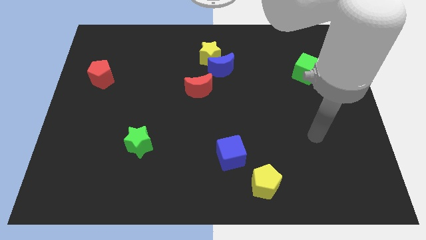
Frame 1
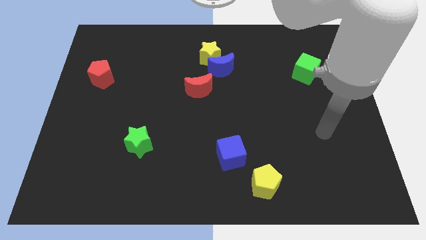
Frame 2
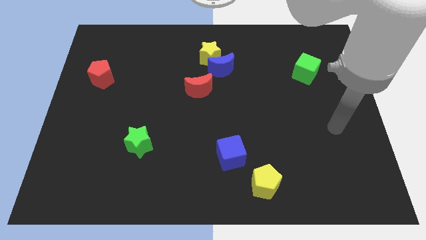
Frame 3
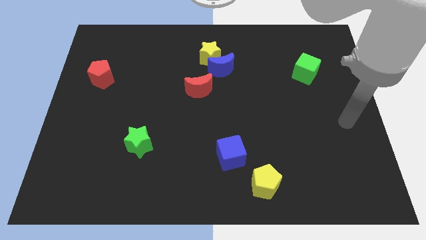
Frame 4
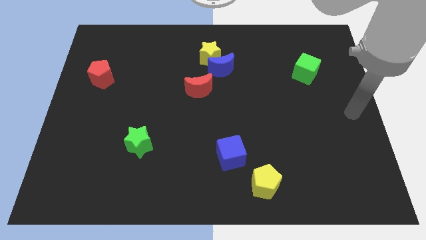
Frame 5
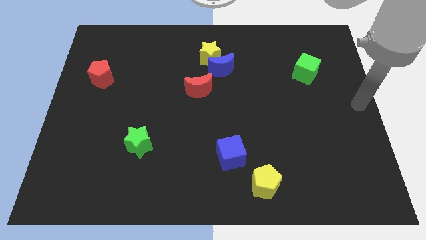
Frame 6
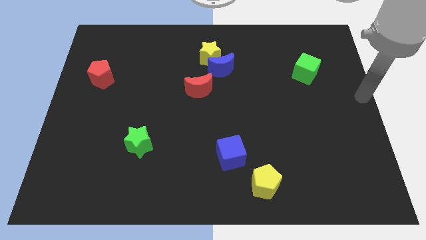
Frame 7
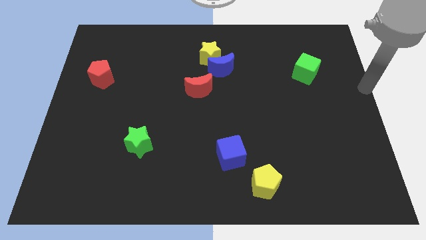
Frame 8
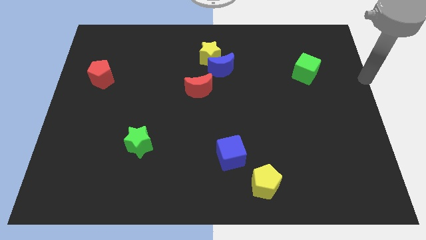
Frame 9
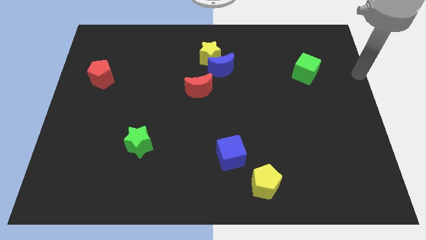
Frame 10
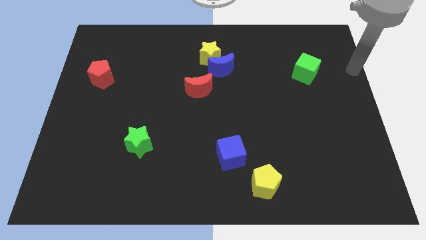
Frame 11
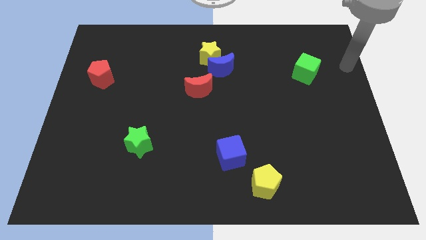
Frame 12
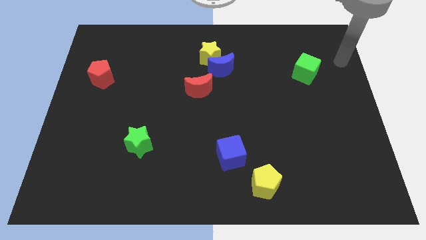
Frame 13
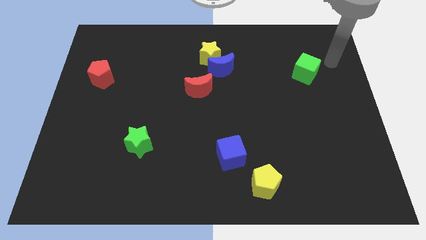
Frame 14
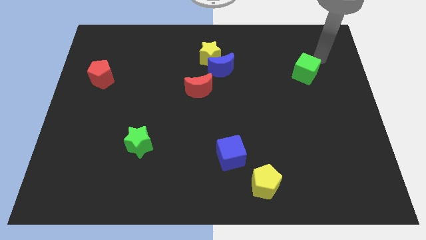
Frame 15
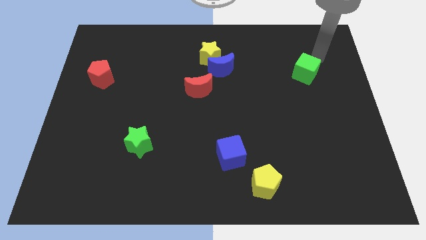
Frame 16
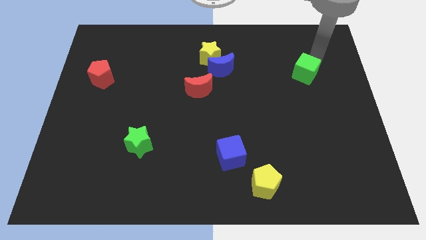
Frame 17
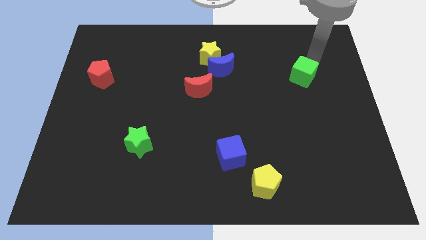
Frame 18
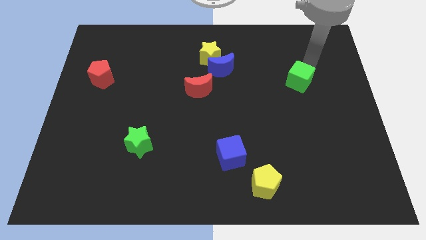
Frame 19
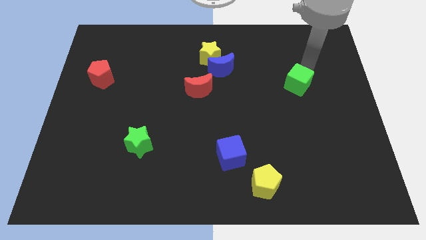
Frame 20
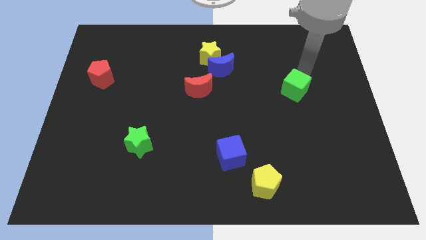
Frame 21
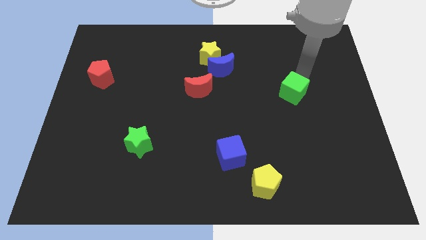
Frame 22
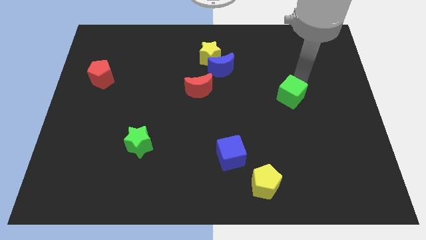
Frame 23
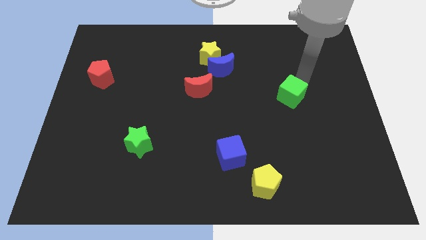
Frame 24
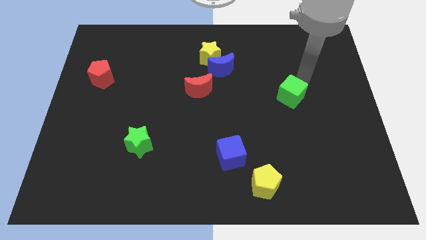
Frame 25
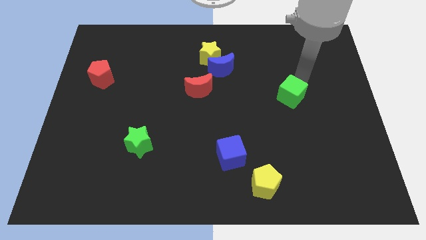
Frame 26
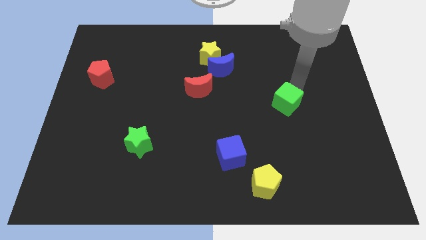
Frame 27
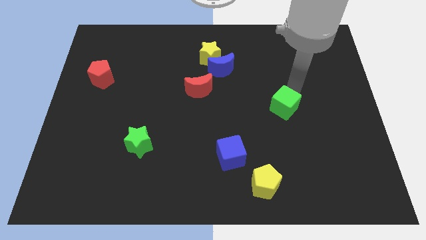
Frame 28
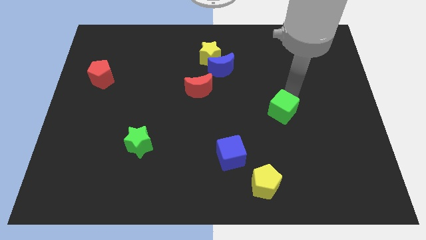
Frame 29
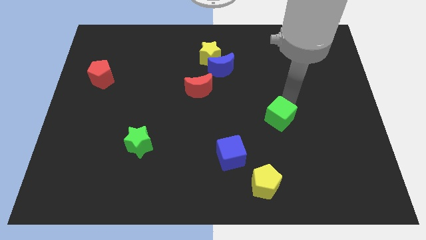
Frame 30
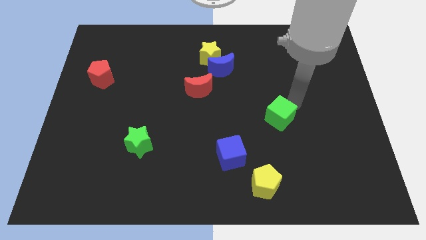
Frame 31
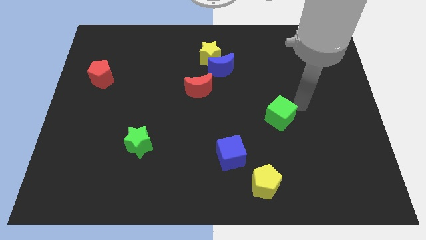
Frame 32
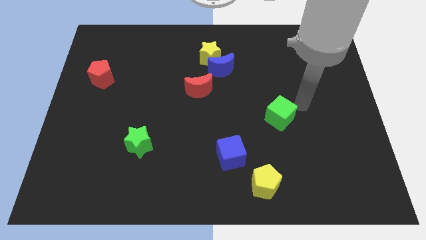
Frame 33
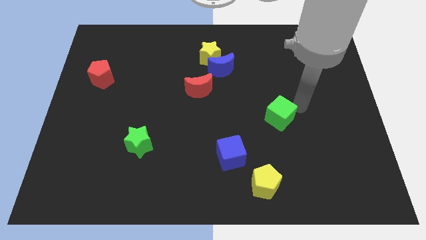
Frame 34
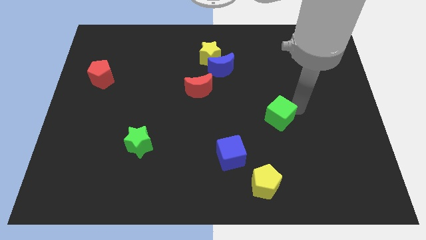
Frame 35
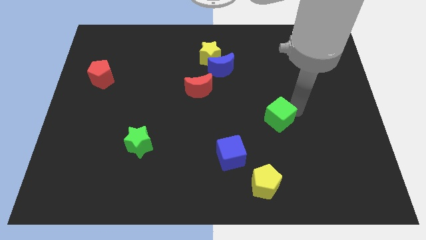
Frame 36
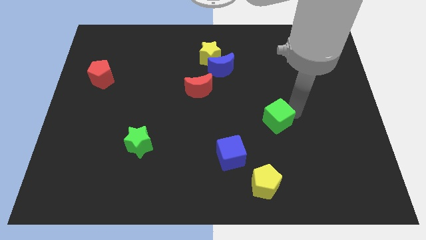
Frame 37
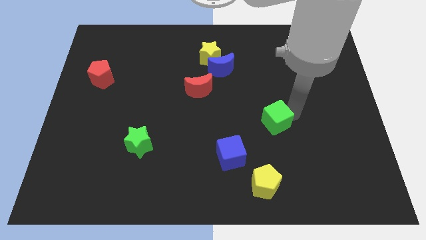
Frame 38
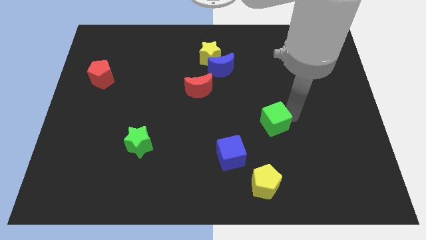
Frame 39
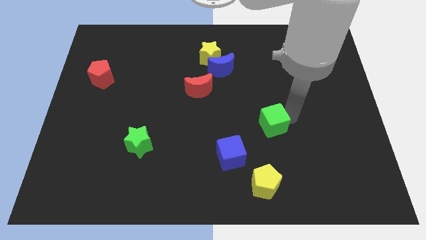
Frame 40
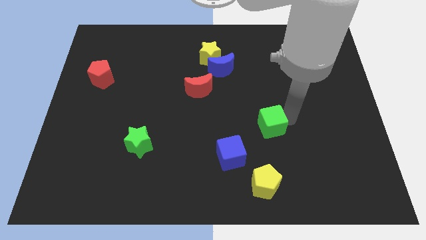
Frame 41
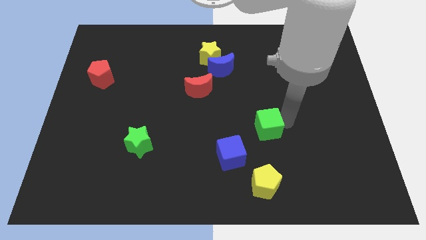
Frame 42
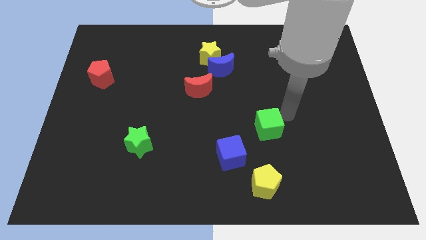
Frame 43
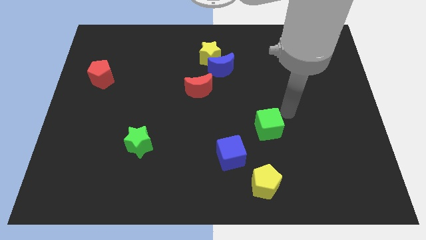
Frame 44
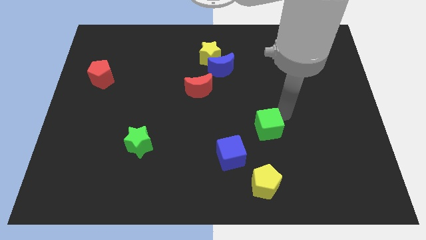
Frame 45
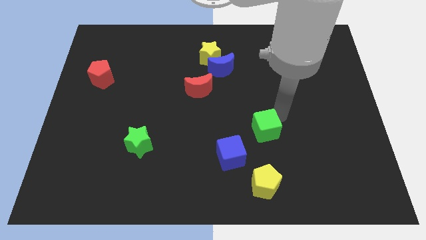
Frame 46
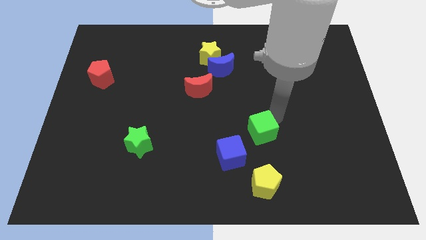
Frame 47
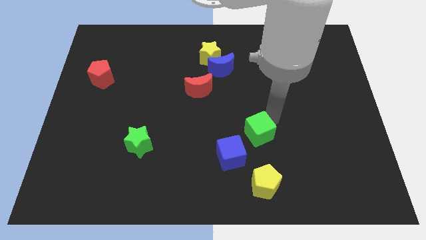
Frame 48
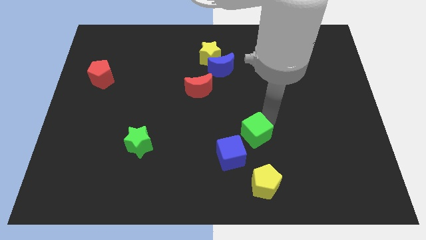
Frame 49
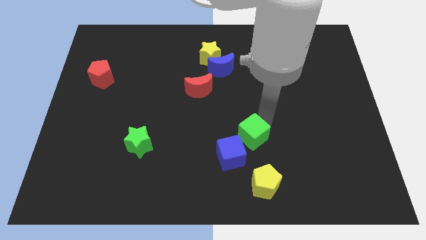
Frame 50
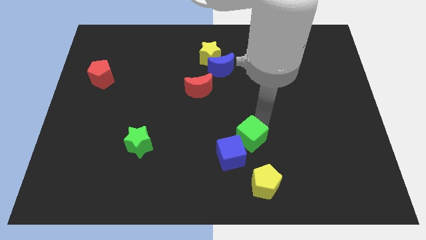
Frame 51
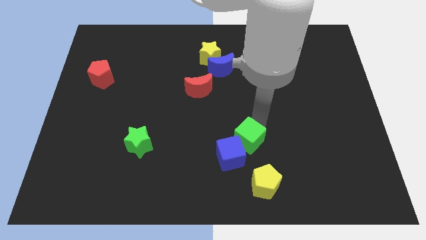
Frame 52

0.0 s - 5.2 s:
slide the green cube towards the blue cube

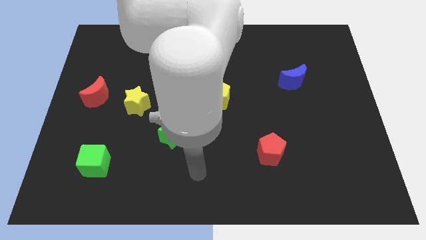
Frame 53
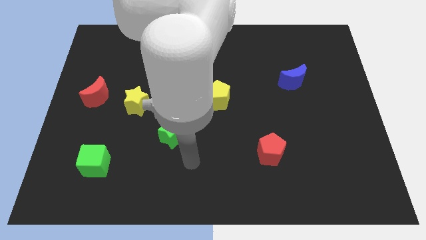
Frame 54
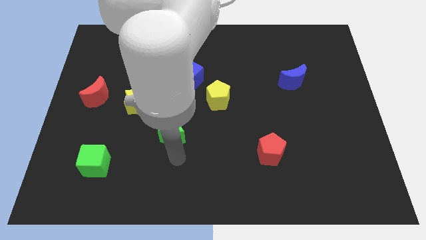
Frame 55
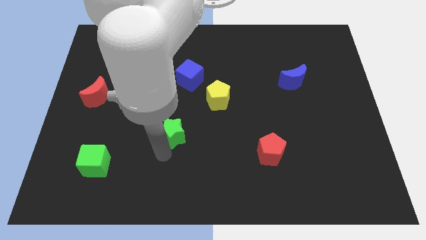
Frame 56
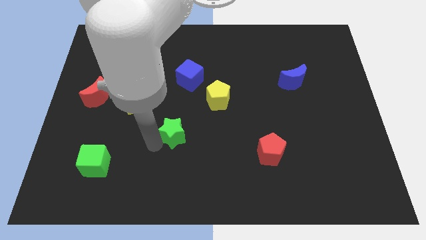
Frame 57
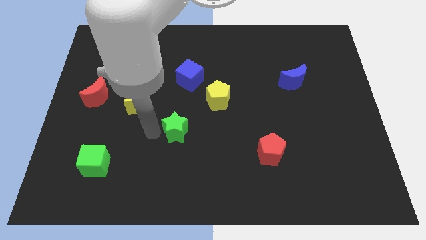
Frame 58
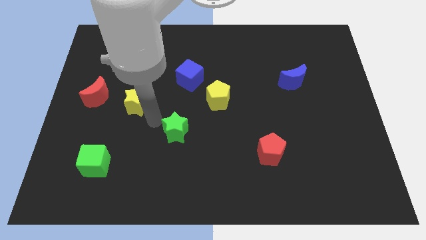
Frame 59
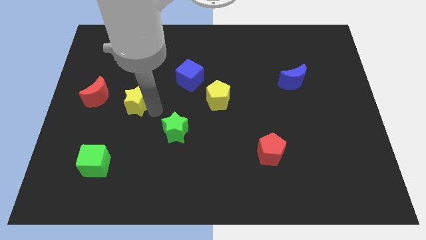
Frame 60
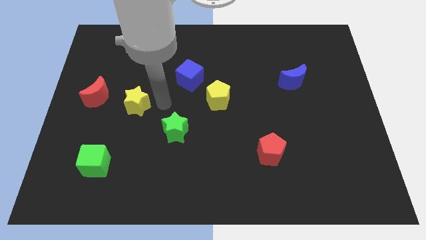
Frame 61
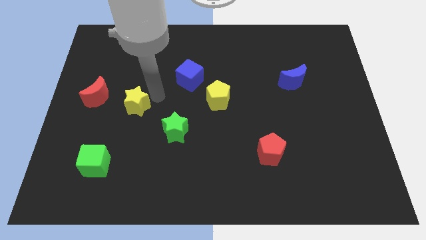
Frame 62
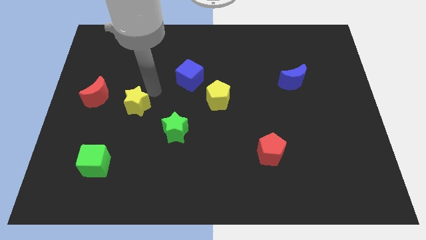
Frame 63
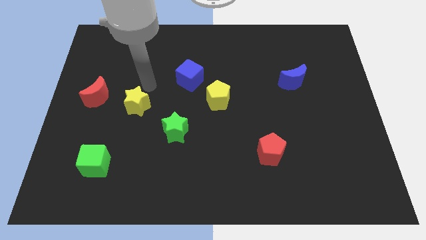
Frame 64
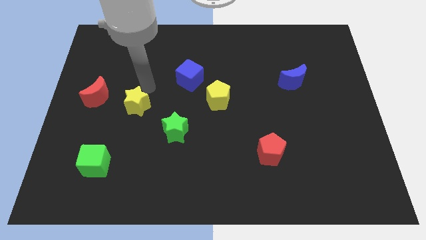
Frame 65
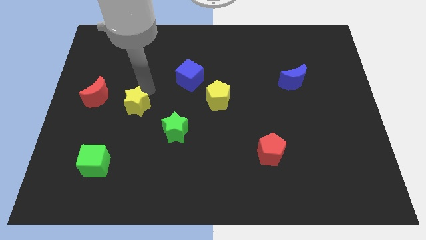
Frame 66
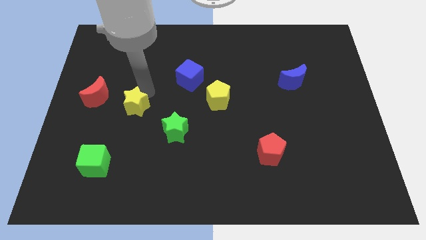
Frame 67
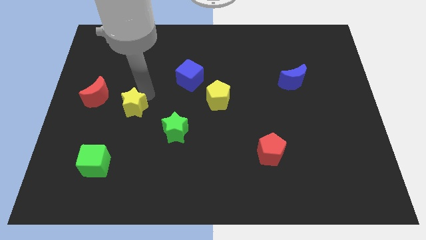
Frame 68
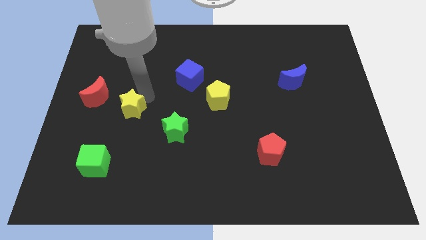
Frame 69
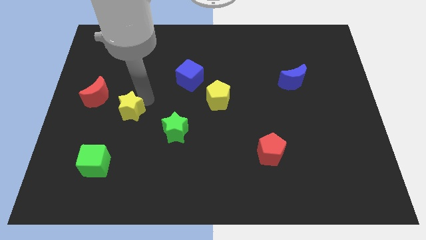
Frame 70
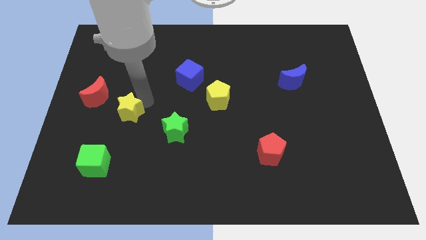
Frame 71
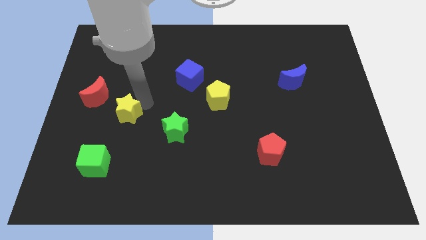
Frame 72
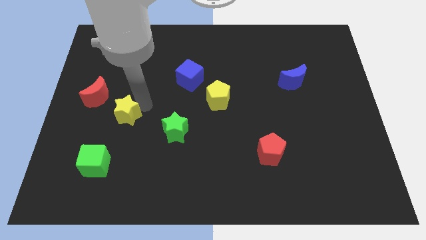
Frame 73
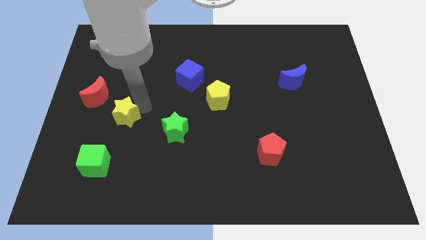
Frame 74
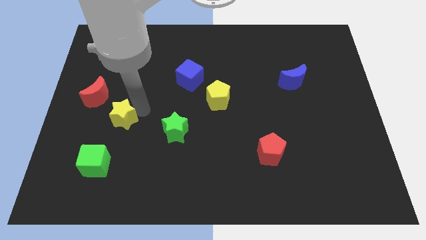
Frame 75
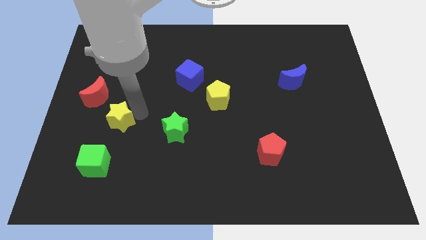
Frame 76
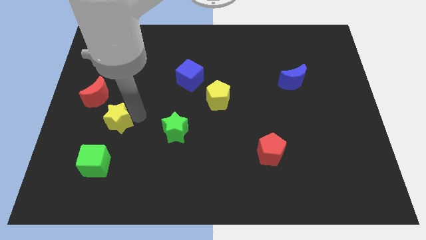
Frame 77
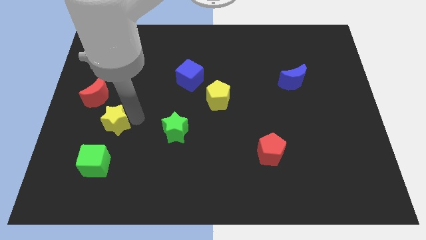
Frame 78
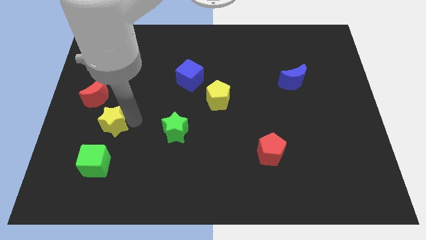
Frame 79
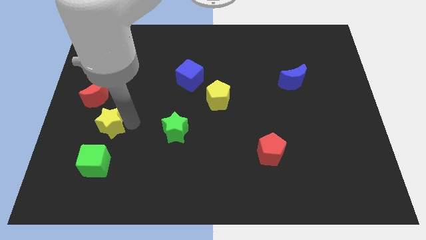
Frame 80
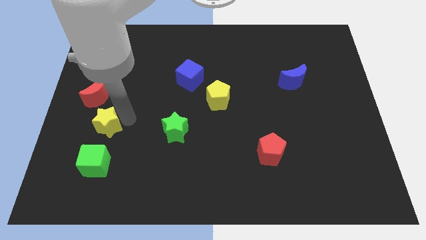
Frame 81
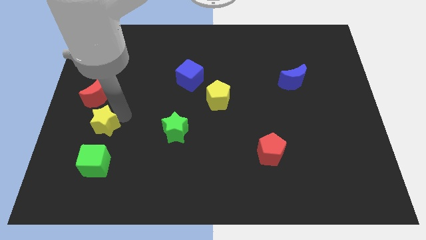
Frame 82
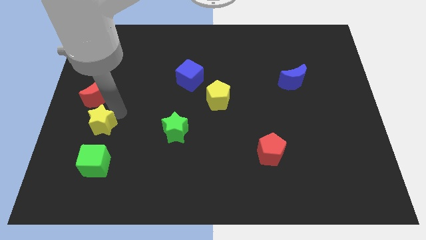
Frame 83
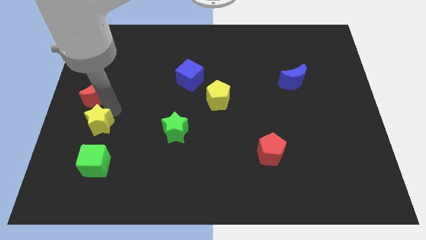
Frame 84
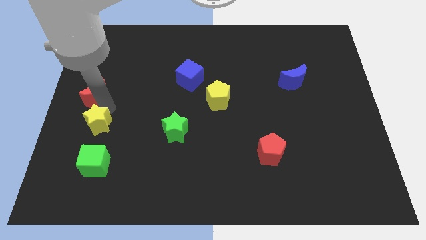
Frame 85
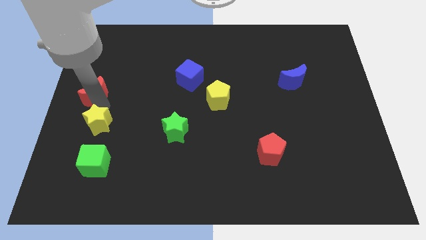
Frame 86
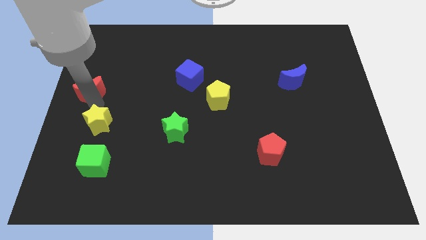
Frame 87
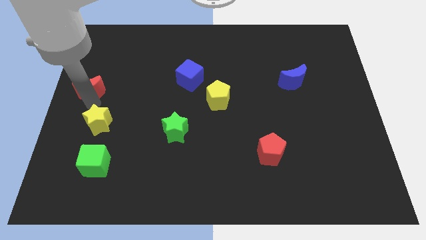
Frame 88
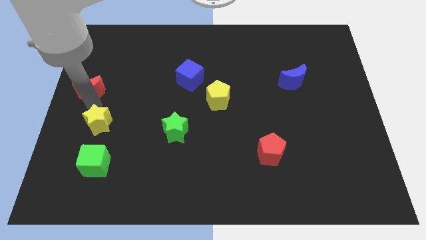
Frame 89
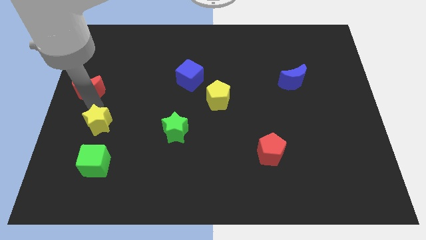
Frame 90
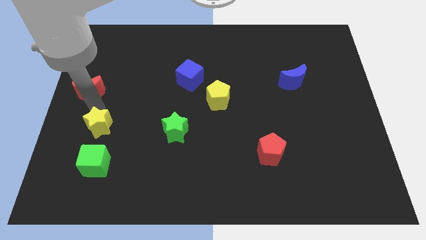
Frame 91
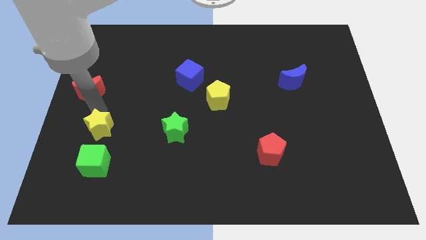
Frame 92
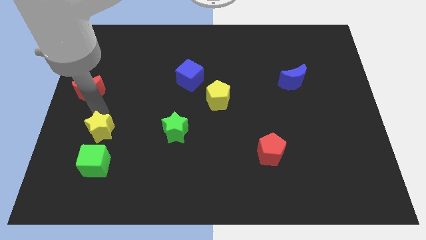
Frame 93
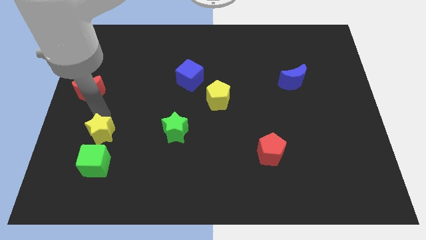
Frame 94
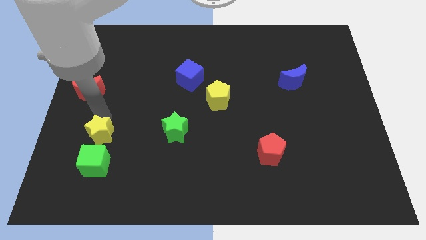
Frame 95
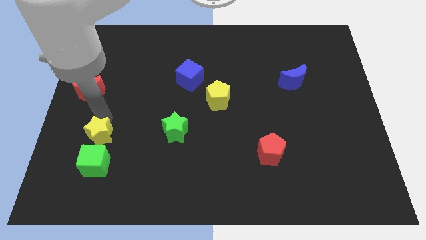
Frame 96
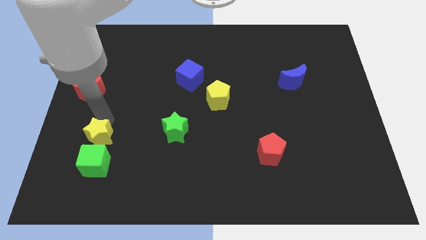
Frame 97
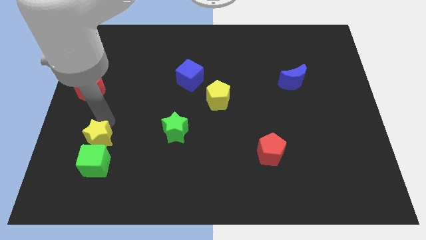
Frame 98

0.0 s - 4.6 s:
slide the yellow star to the green cube
